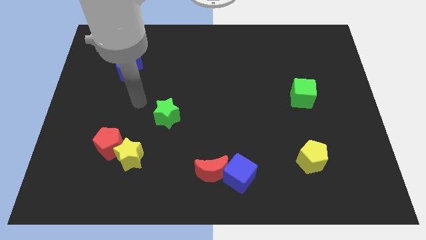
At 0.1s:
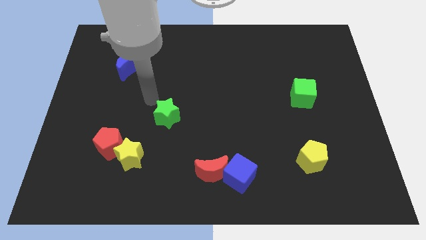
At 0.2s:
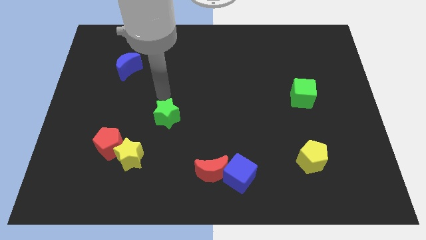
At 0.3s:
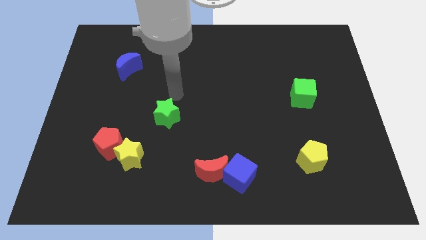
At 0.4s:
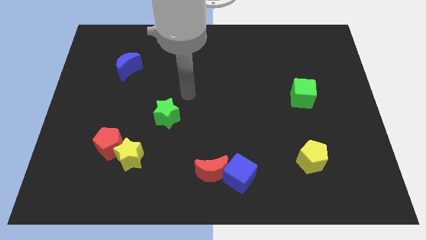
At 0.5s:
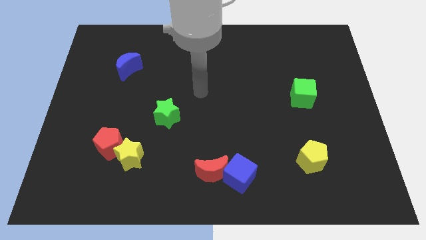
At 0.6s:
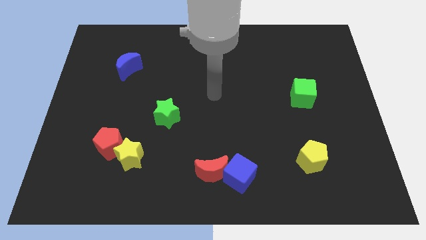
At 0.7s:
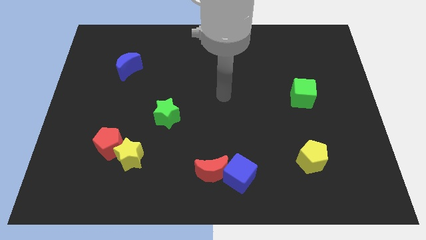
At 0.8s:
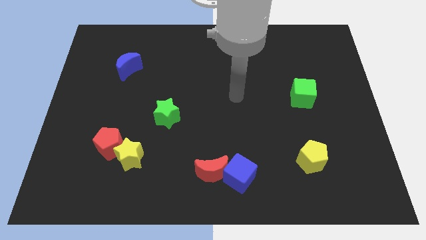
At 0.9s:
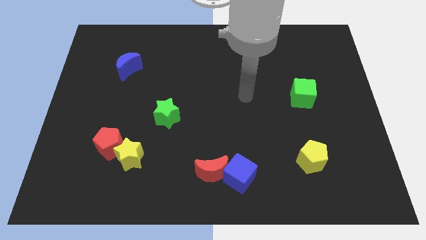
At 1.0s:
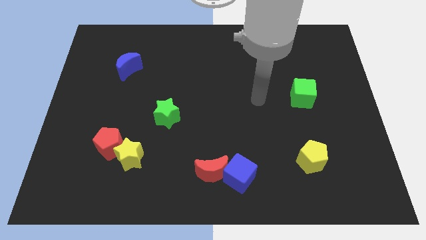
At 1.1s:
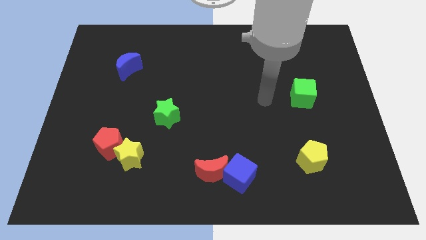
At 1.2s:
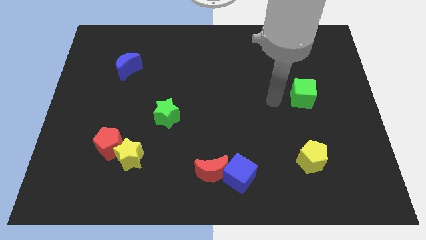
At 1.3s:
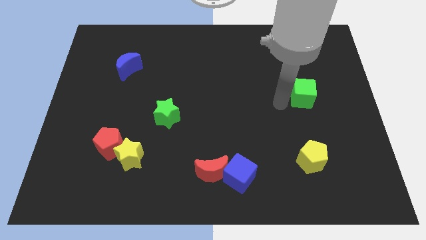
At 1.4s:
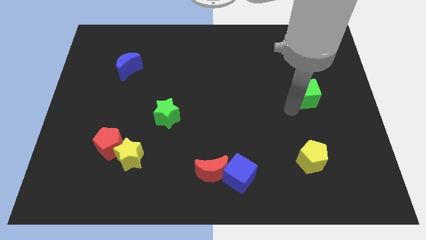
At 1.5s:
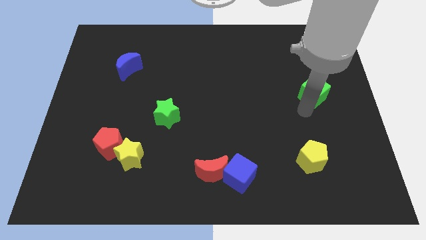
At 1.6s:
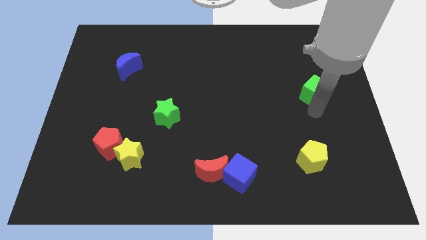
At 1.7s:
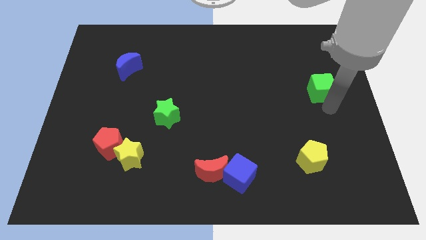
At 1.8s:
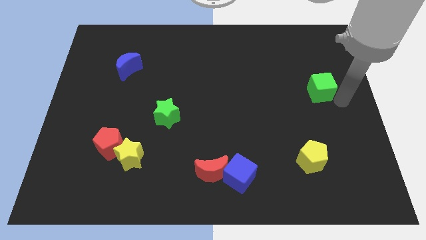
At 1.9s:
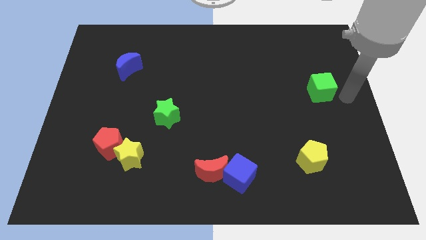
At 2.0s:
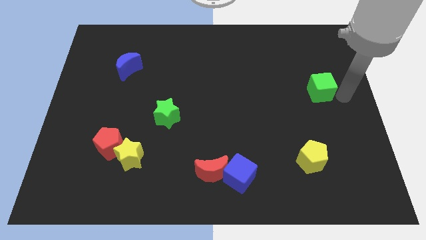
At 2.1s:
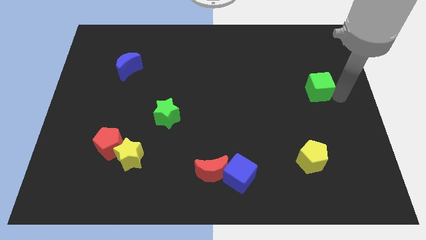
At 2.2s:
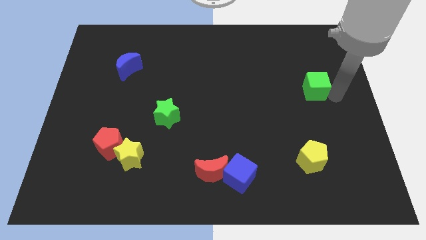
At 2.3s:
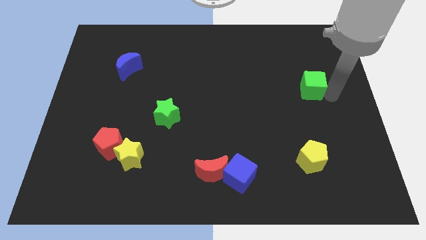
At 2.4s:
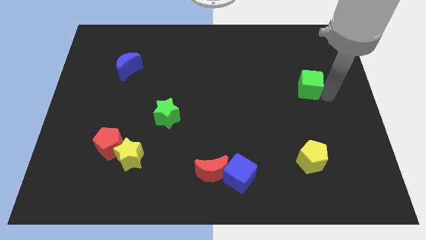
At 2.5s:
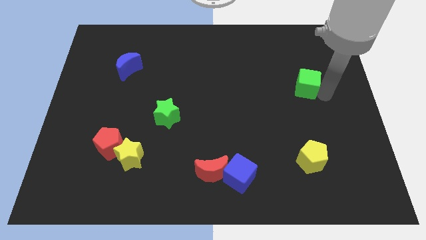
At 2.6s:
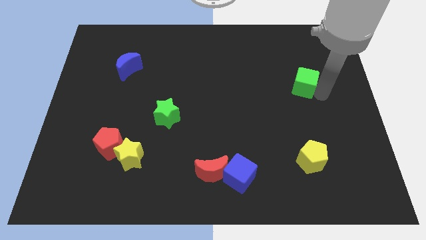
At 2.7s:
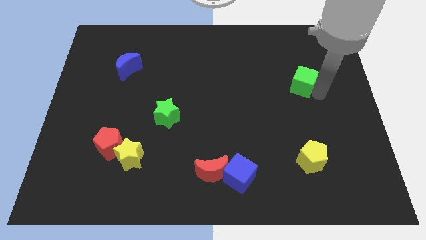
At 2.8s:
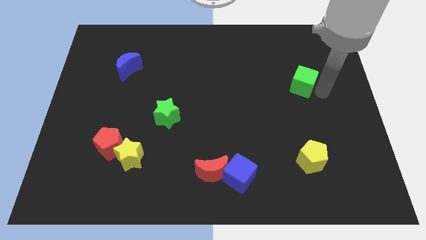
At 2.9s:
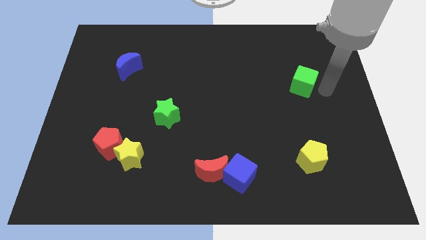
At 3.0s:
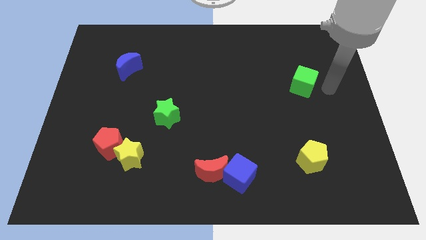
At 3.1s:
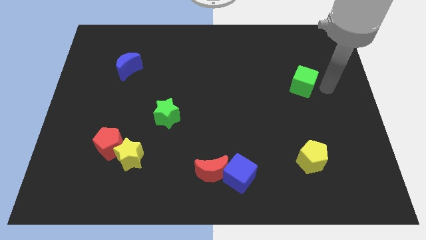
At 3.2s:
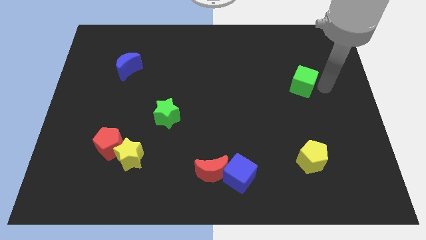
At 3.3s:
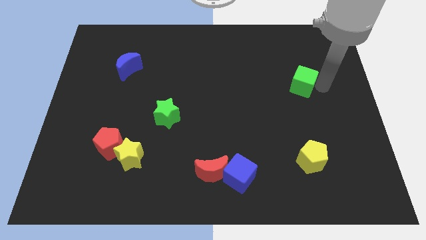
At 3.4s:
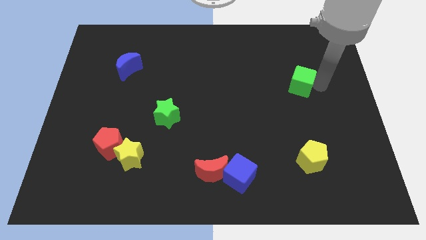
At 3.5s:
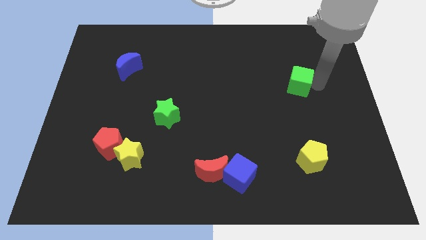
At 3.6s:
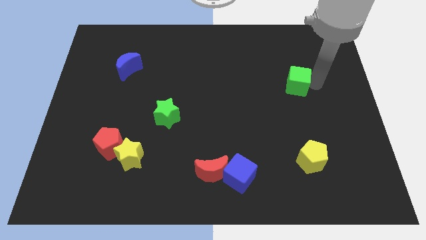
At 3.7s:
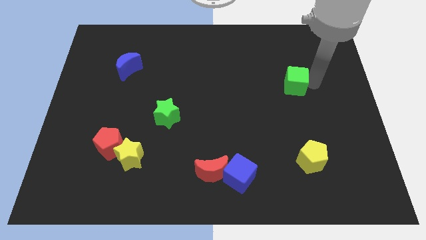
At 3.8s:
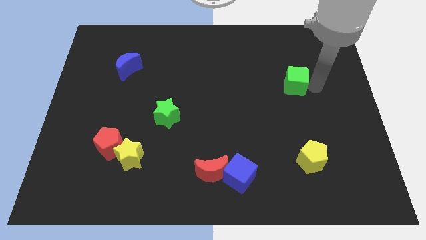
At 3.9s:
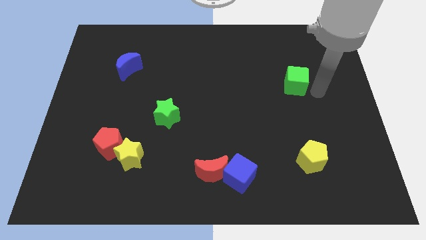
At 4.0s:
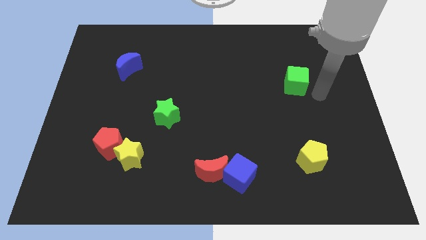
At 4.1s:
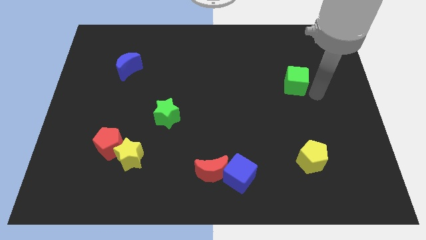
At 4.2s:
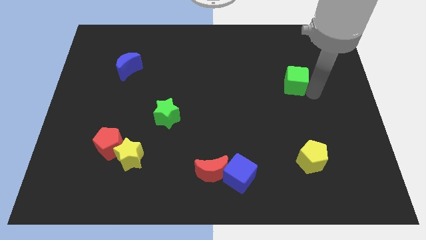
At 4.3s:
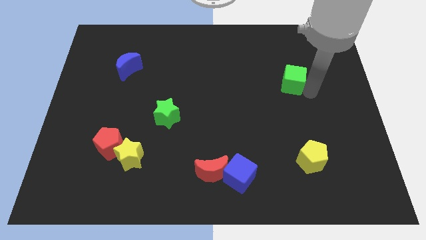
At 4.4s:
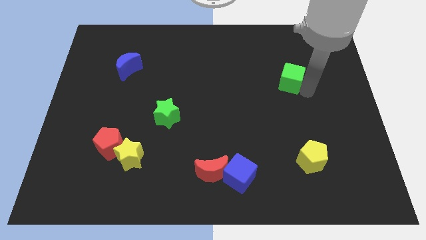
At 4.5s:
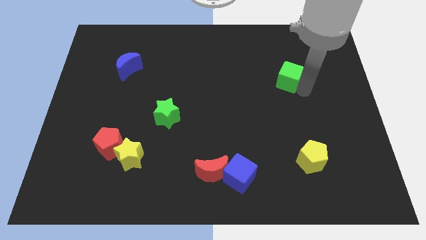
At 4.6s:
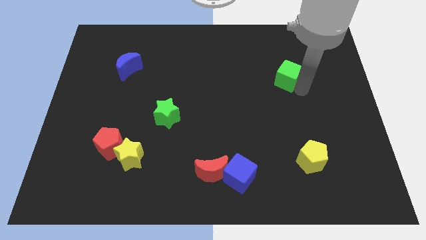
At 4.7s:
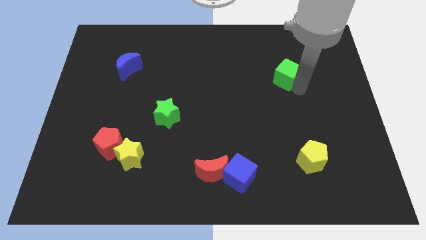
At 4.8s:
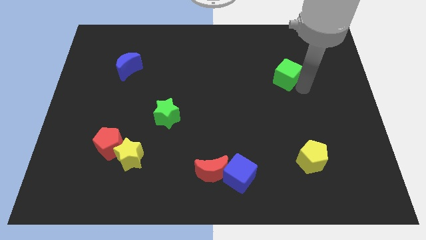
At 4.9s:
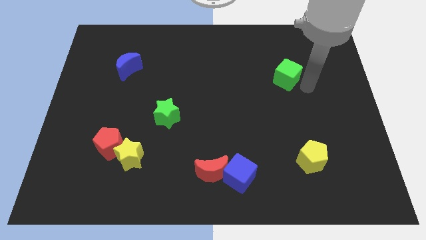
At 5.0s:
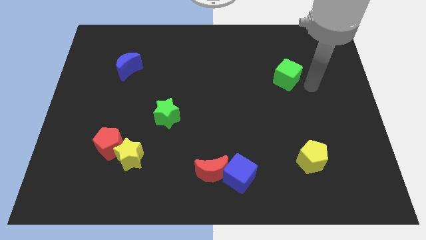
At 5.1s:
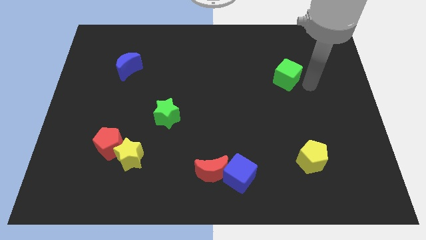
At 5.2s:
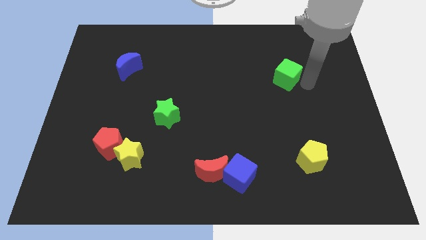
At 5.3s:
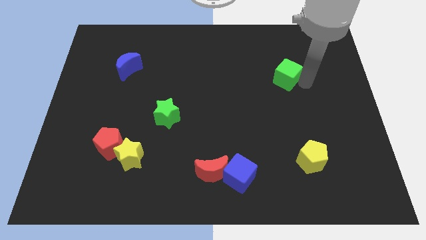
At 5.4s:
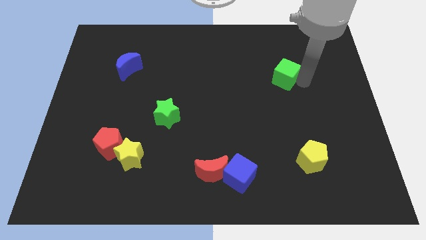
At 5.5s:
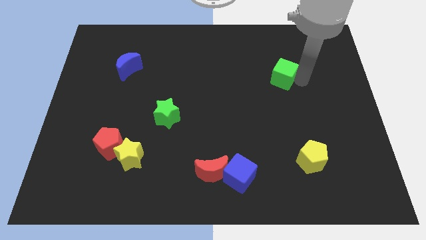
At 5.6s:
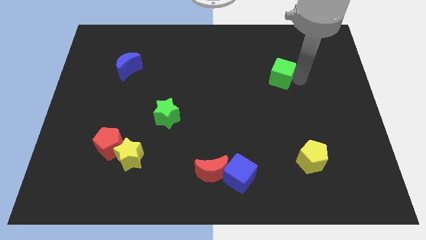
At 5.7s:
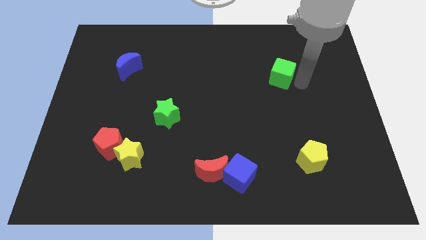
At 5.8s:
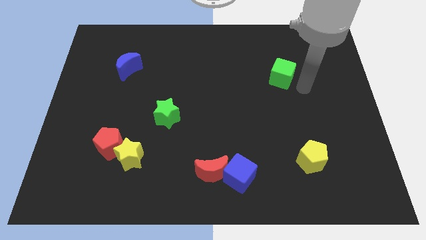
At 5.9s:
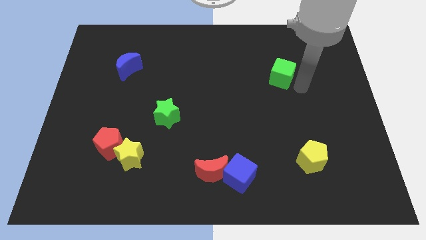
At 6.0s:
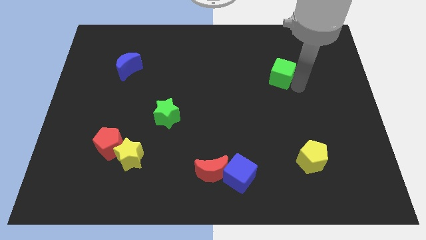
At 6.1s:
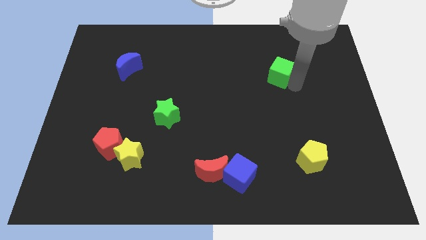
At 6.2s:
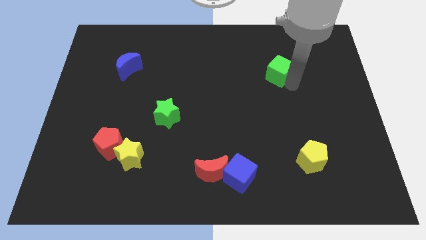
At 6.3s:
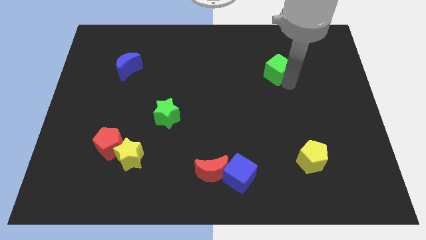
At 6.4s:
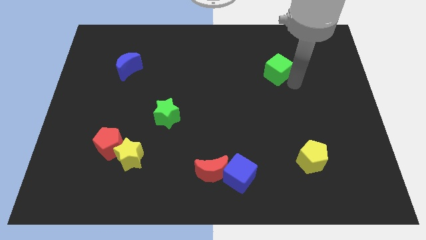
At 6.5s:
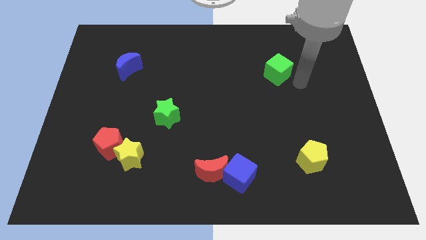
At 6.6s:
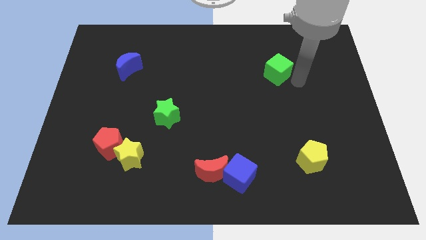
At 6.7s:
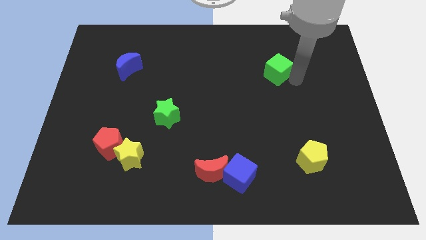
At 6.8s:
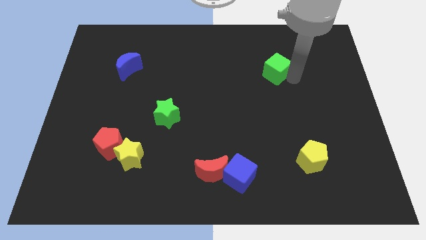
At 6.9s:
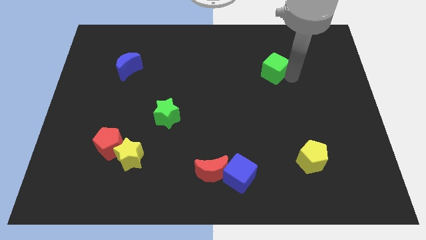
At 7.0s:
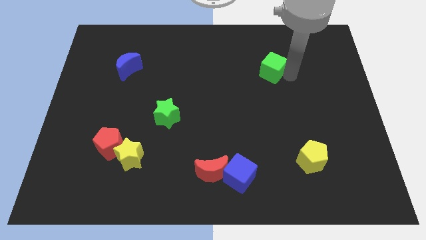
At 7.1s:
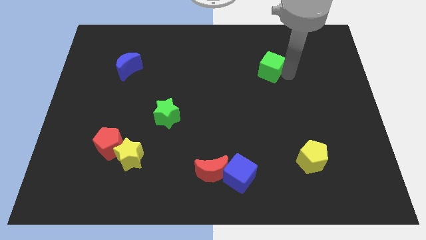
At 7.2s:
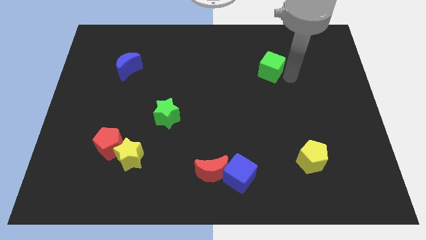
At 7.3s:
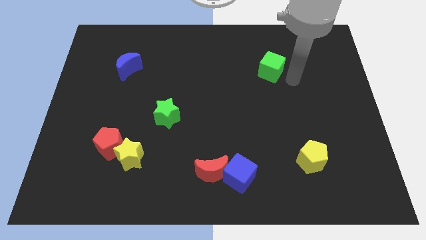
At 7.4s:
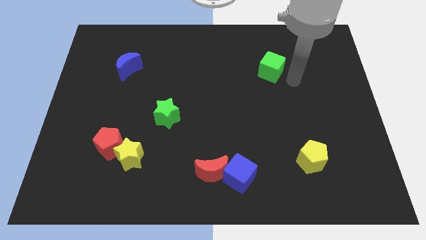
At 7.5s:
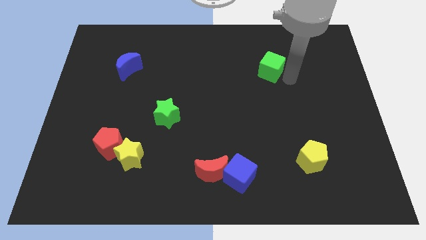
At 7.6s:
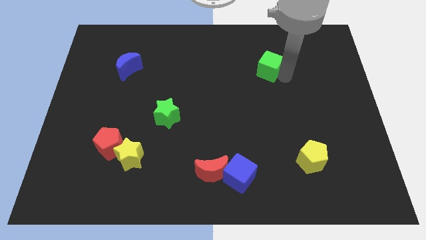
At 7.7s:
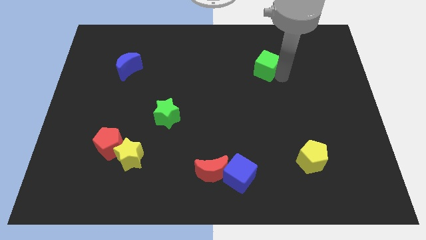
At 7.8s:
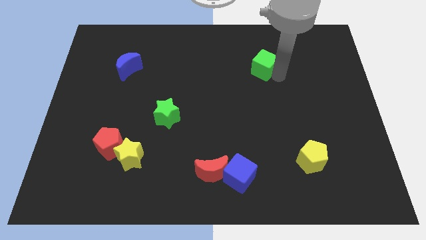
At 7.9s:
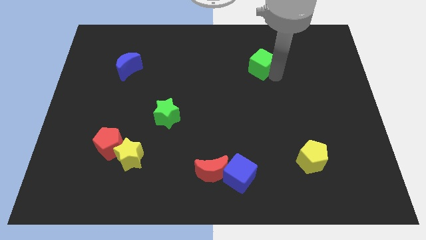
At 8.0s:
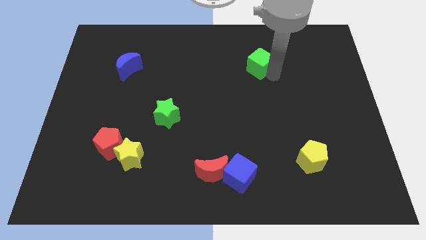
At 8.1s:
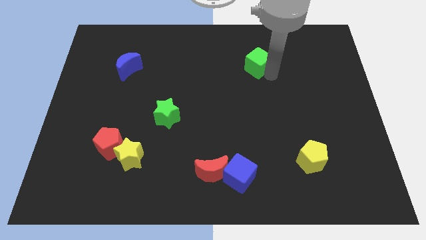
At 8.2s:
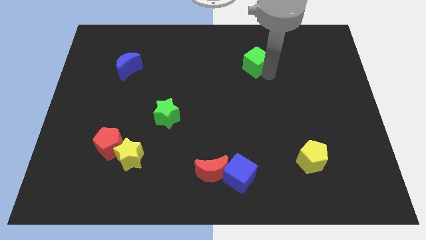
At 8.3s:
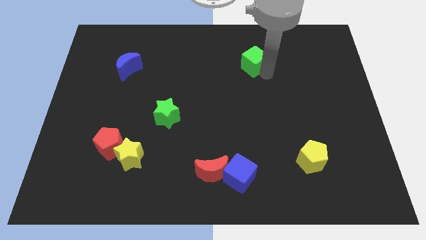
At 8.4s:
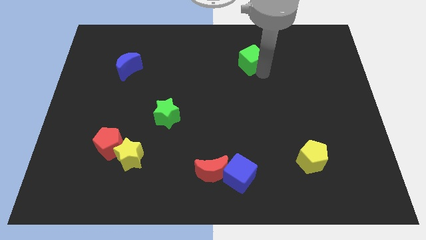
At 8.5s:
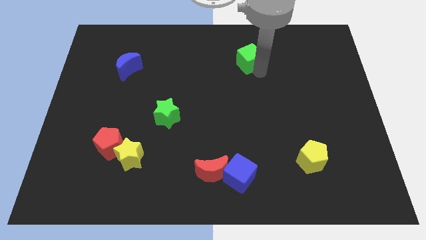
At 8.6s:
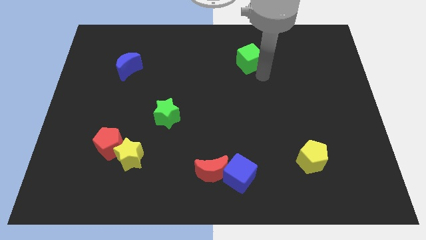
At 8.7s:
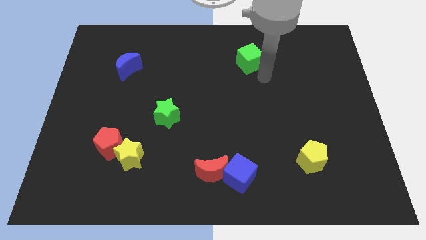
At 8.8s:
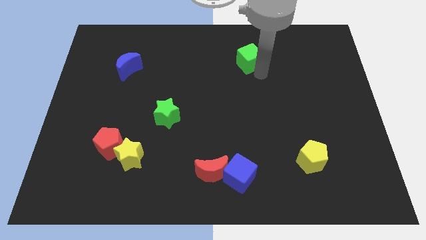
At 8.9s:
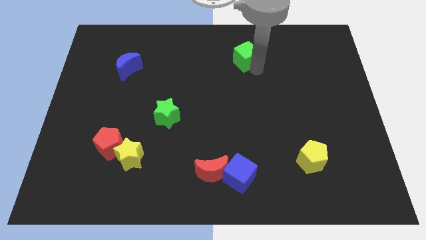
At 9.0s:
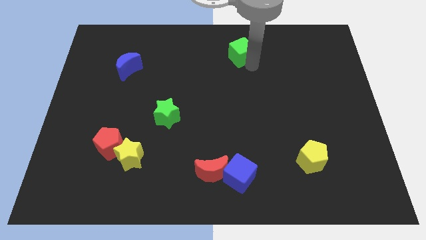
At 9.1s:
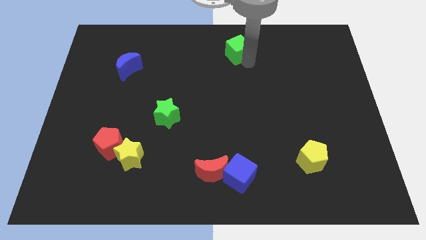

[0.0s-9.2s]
put the green cube to the towards your base
